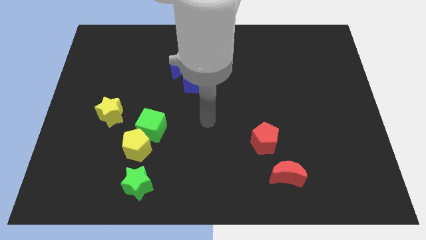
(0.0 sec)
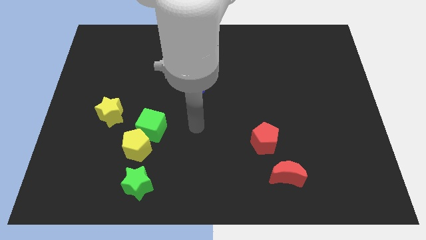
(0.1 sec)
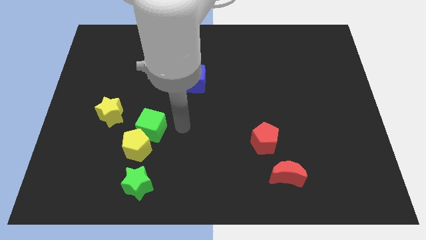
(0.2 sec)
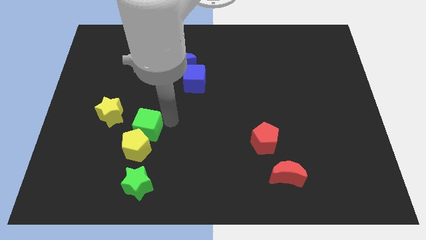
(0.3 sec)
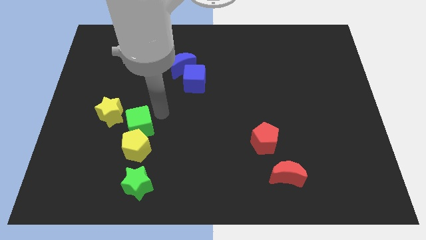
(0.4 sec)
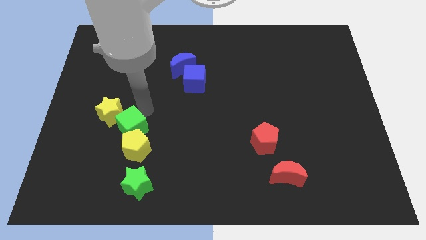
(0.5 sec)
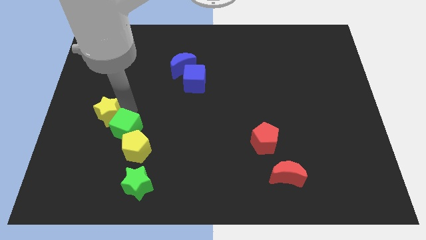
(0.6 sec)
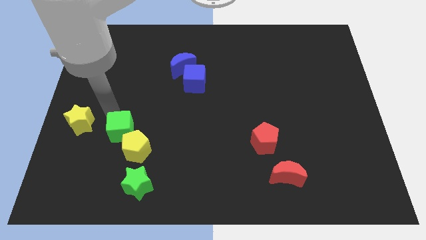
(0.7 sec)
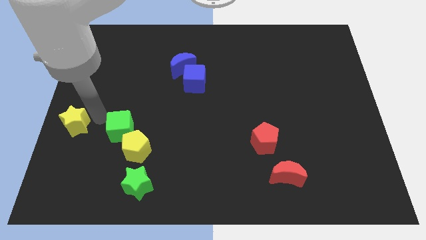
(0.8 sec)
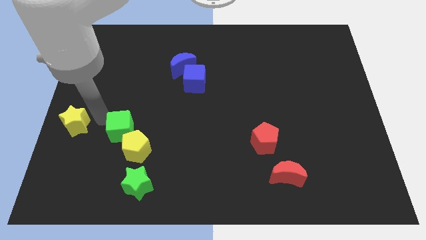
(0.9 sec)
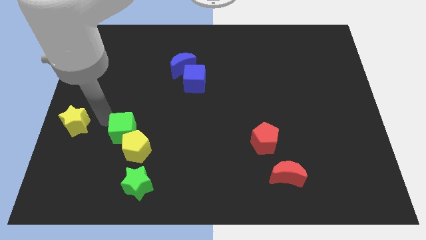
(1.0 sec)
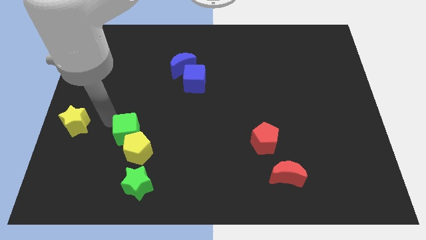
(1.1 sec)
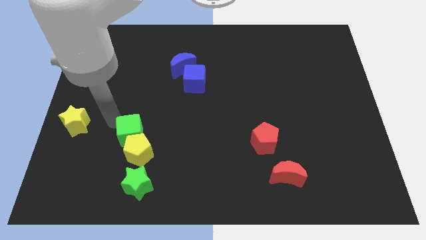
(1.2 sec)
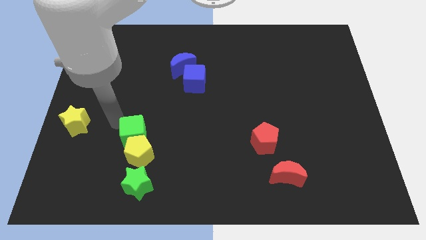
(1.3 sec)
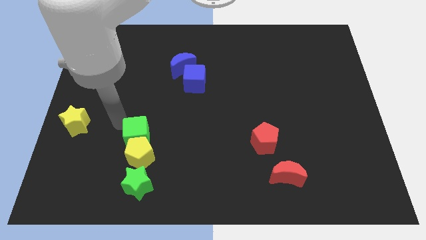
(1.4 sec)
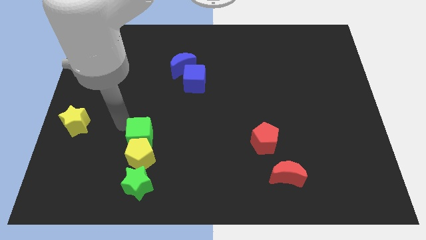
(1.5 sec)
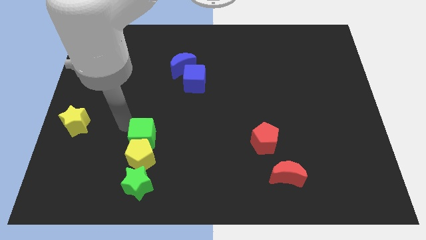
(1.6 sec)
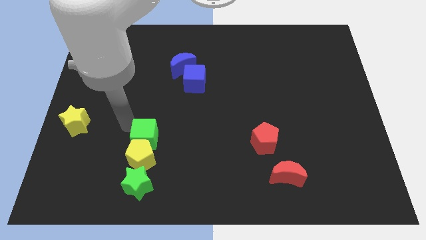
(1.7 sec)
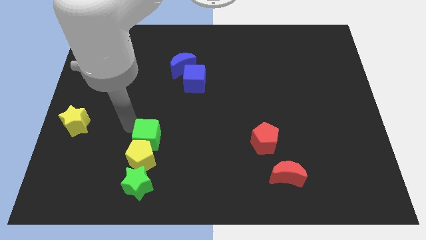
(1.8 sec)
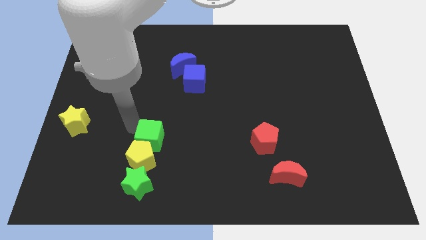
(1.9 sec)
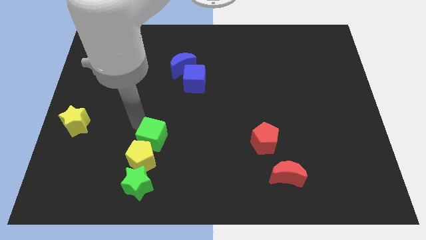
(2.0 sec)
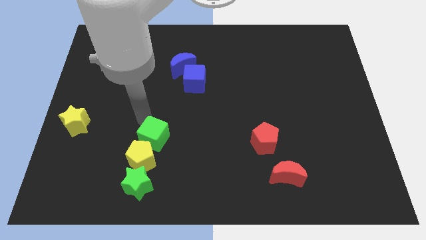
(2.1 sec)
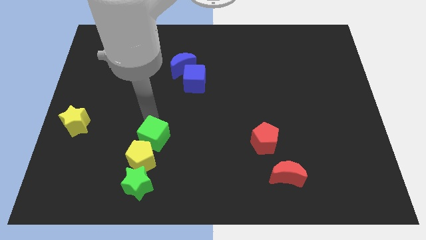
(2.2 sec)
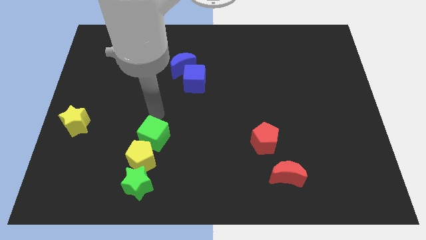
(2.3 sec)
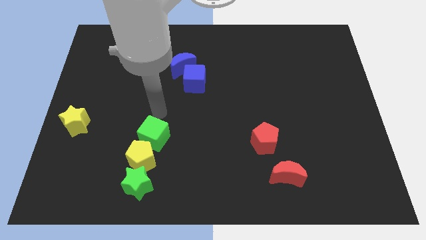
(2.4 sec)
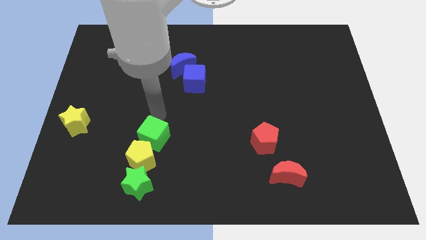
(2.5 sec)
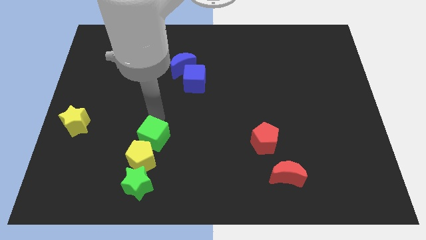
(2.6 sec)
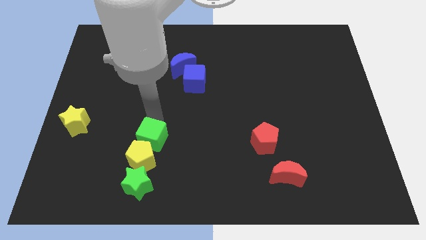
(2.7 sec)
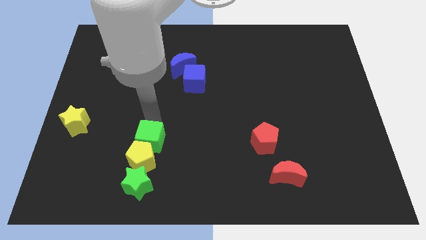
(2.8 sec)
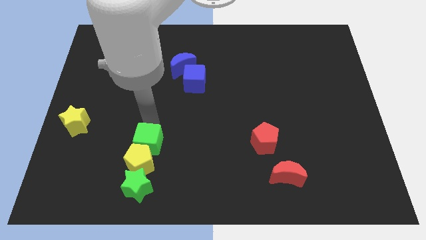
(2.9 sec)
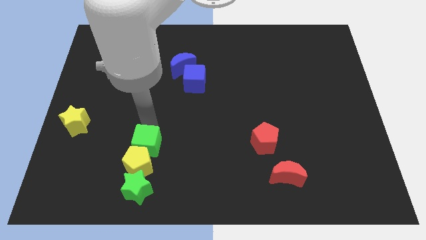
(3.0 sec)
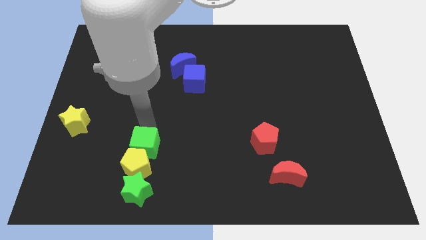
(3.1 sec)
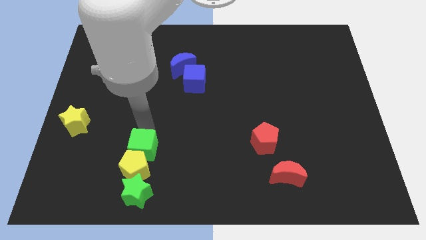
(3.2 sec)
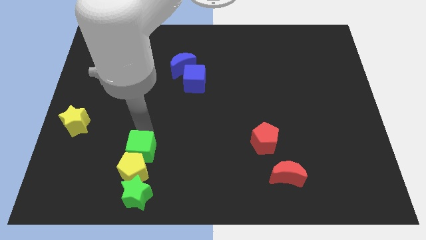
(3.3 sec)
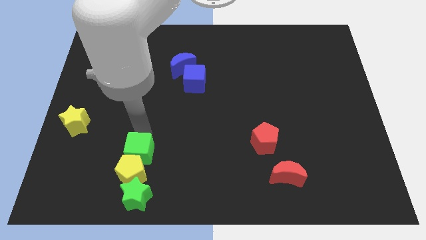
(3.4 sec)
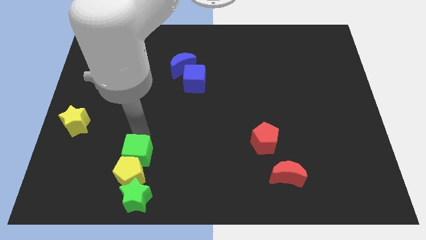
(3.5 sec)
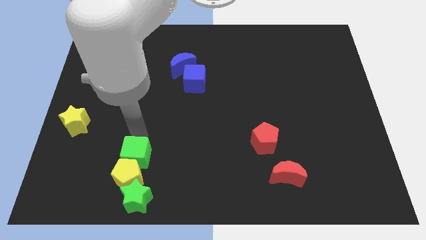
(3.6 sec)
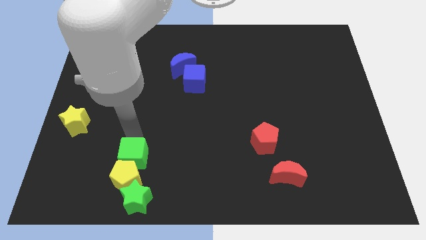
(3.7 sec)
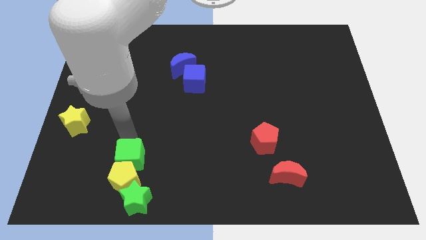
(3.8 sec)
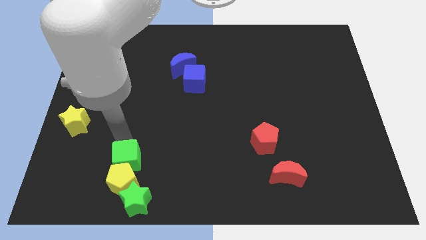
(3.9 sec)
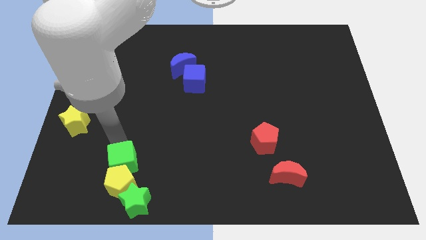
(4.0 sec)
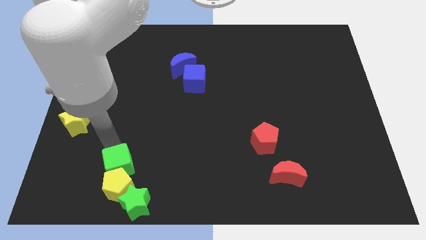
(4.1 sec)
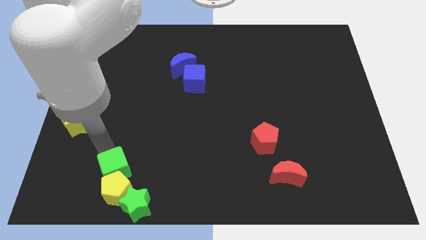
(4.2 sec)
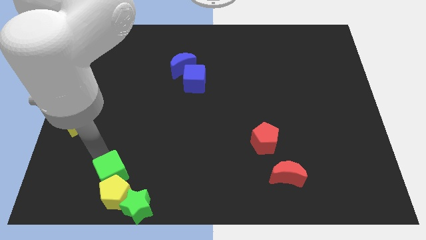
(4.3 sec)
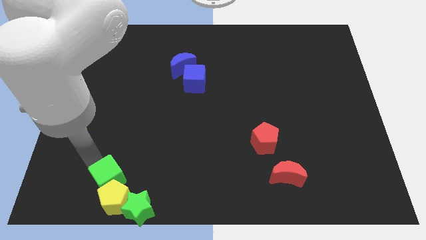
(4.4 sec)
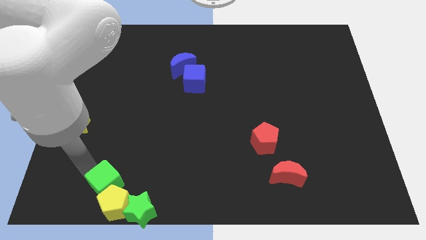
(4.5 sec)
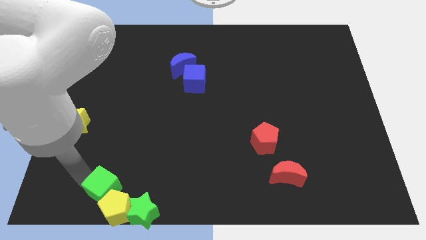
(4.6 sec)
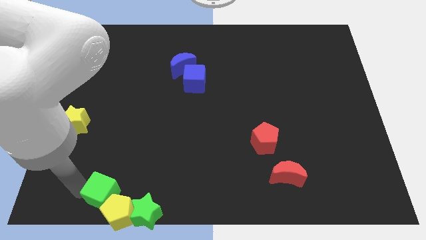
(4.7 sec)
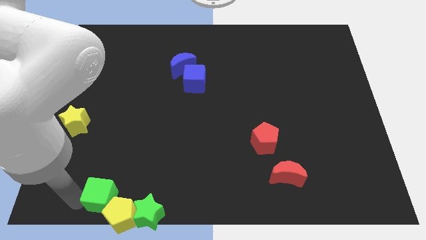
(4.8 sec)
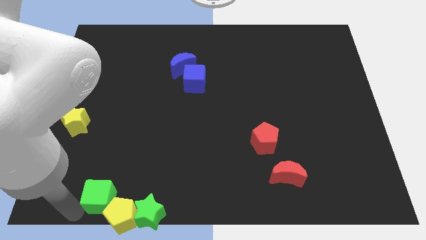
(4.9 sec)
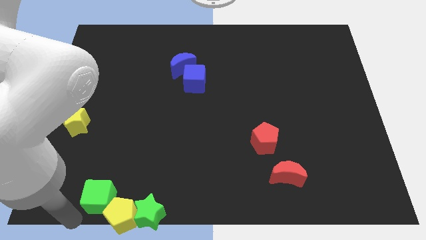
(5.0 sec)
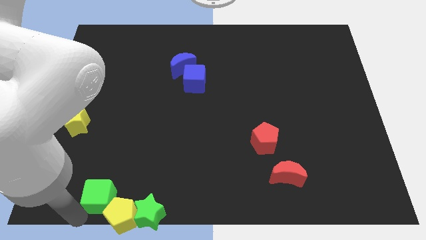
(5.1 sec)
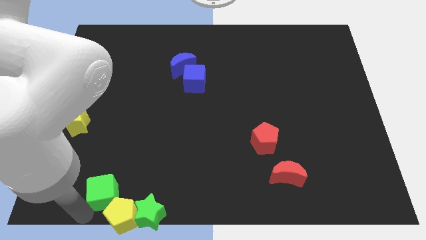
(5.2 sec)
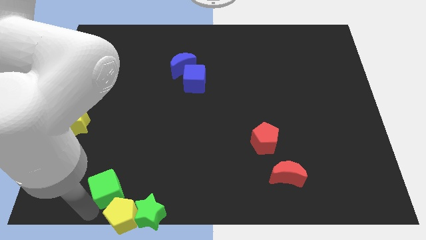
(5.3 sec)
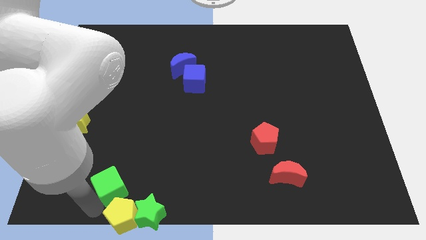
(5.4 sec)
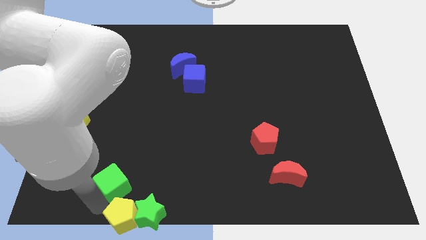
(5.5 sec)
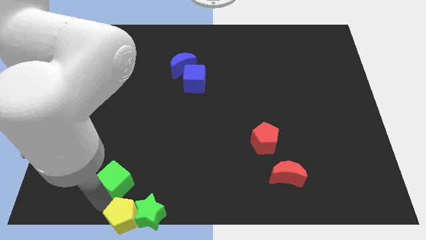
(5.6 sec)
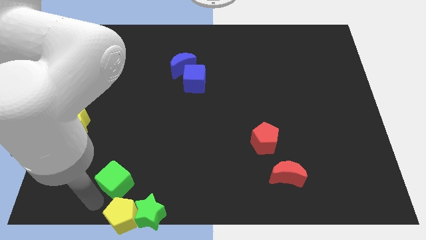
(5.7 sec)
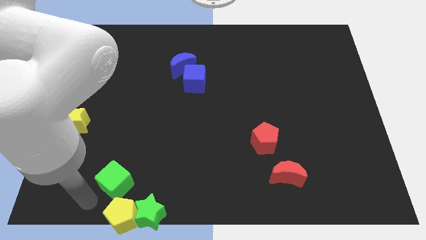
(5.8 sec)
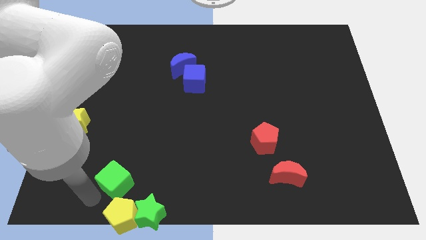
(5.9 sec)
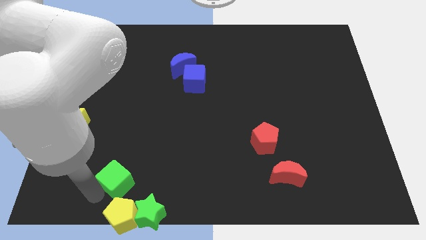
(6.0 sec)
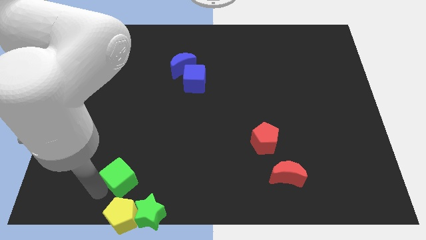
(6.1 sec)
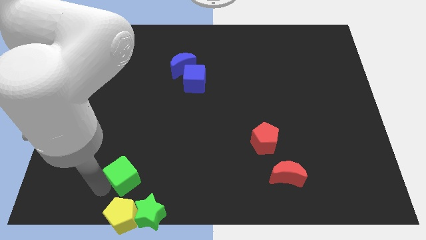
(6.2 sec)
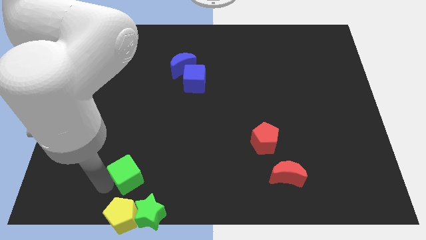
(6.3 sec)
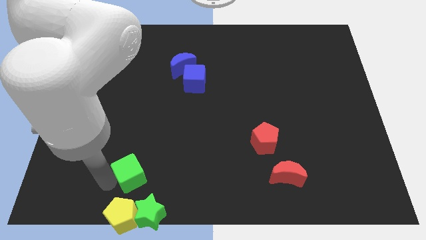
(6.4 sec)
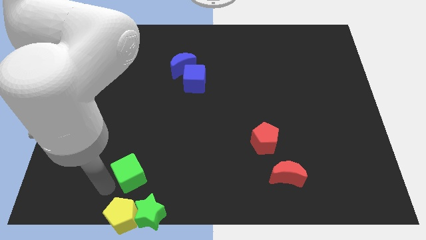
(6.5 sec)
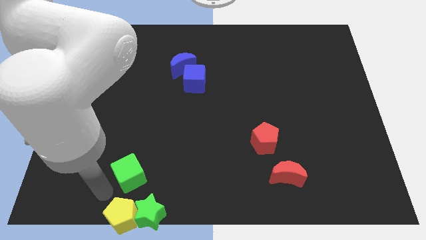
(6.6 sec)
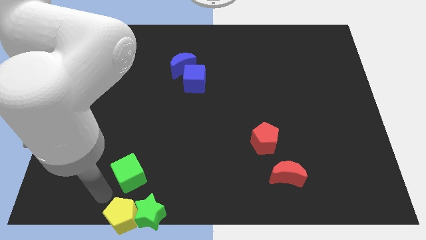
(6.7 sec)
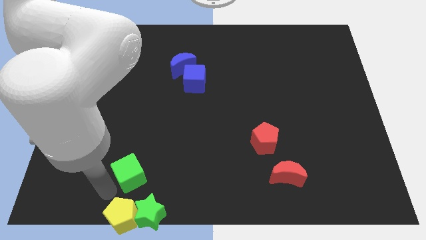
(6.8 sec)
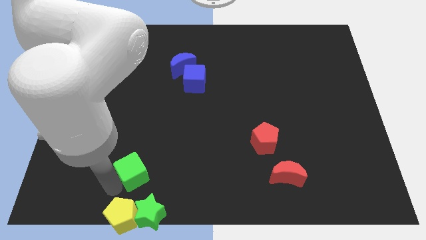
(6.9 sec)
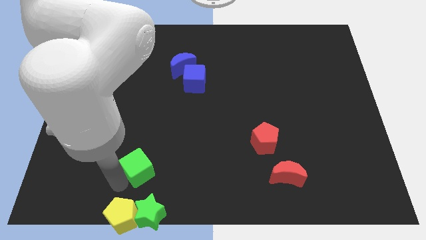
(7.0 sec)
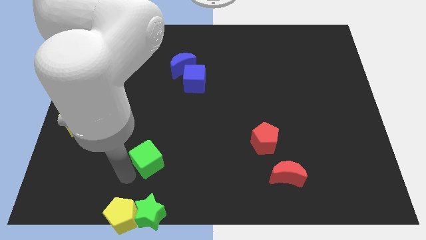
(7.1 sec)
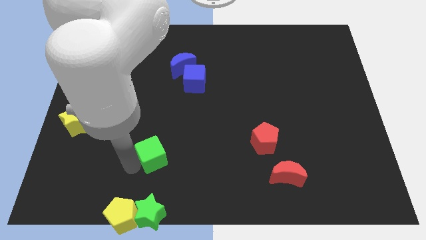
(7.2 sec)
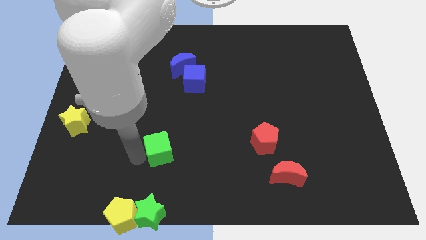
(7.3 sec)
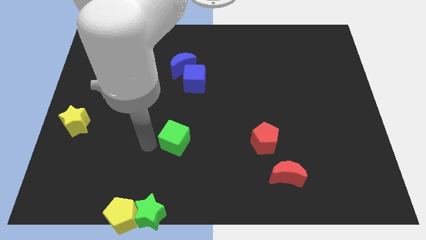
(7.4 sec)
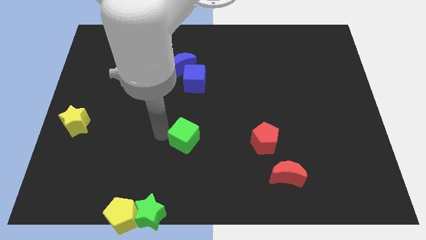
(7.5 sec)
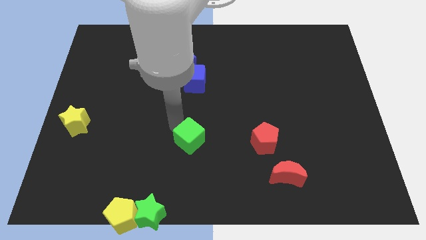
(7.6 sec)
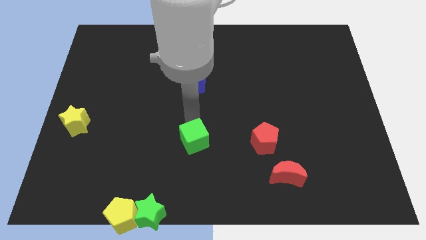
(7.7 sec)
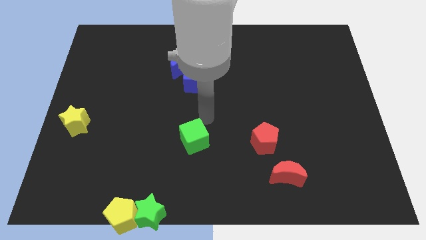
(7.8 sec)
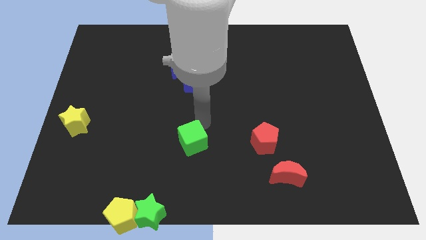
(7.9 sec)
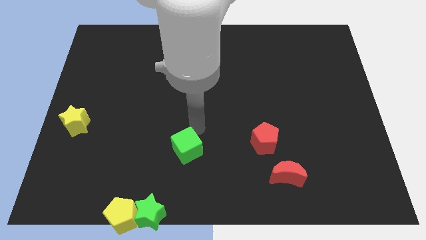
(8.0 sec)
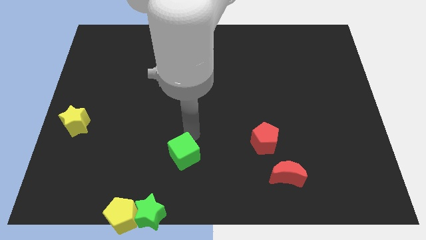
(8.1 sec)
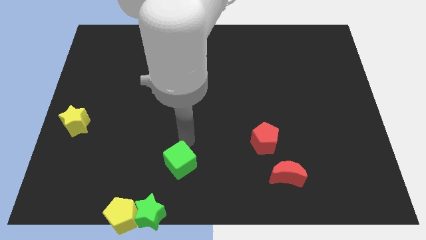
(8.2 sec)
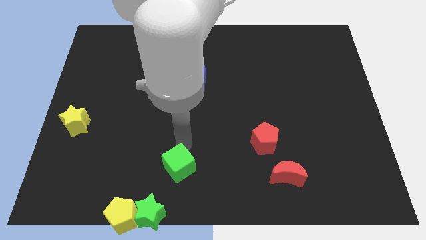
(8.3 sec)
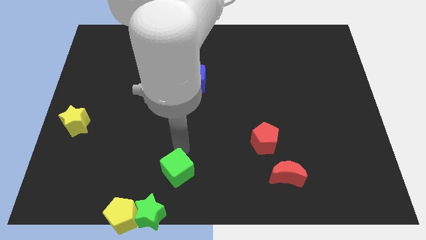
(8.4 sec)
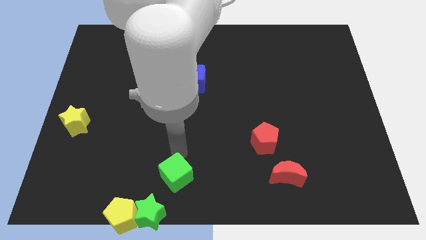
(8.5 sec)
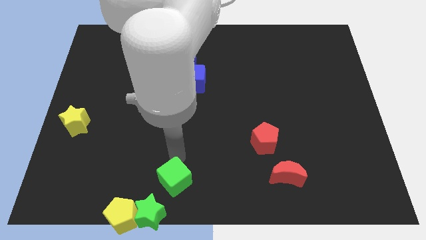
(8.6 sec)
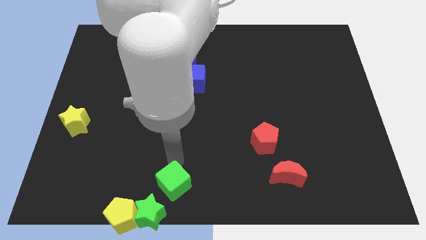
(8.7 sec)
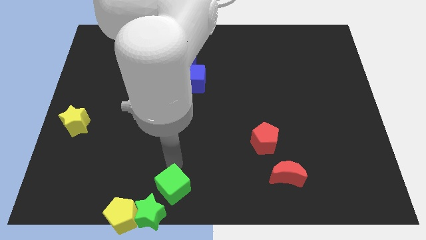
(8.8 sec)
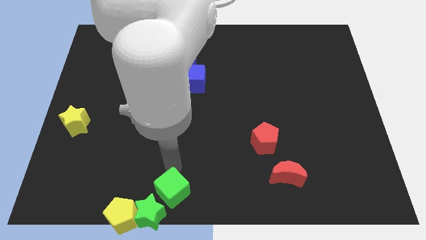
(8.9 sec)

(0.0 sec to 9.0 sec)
put the green cube close to the green star
